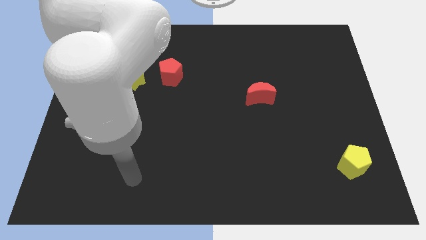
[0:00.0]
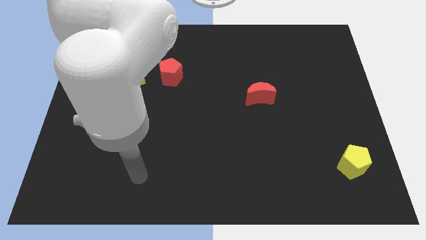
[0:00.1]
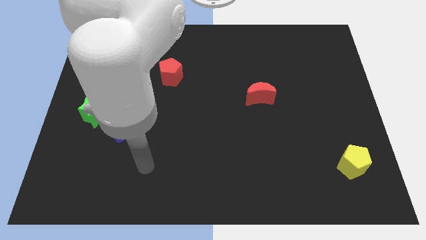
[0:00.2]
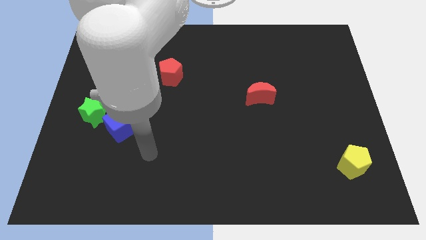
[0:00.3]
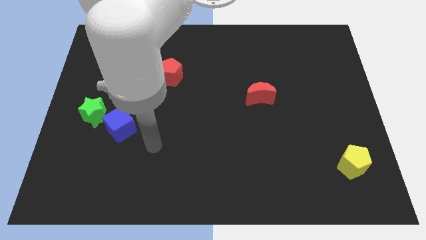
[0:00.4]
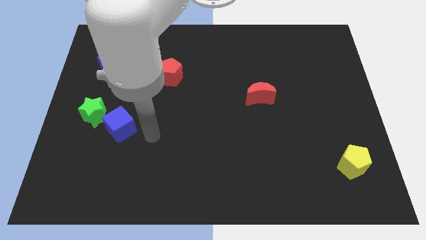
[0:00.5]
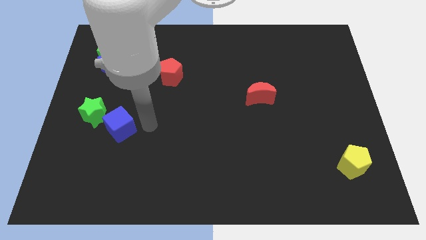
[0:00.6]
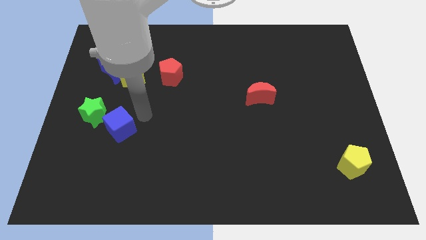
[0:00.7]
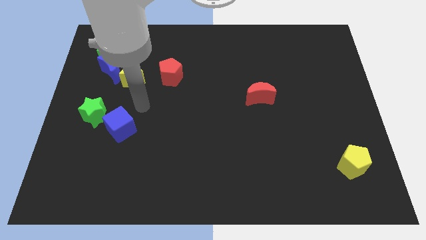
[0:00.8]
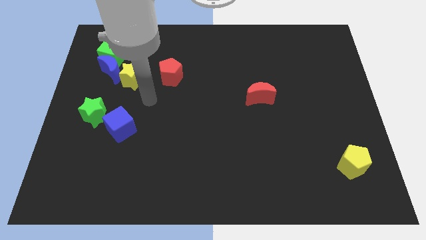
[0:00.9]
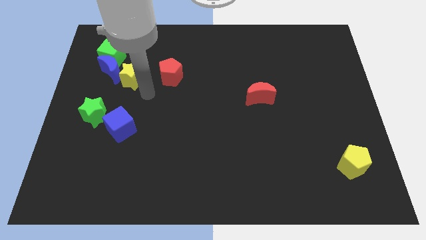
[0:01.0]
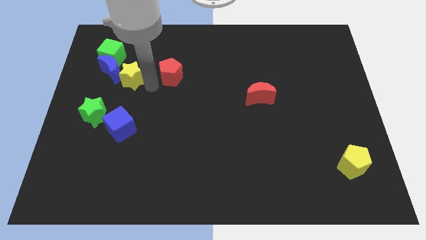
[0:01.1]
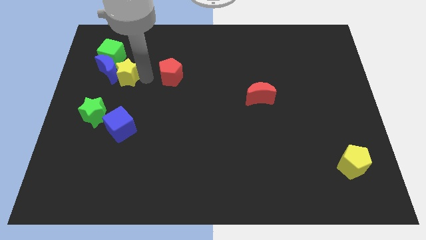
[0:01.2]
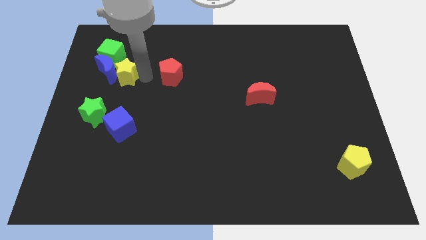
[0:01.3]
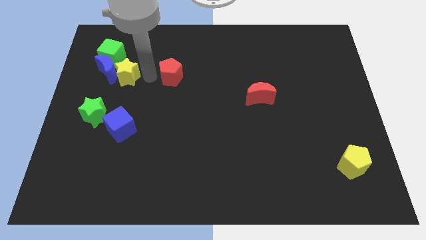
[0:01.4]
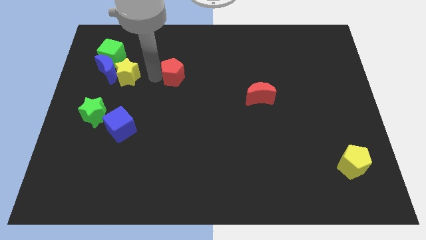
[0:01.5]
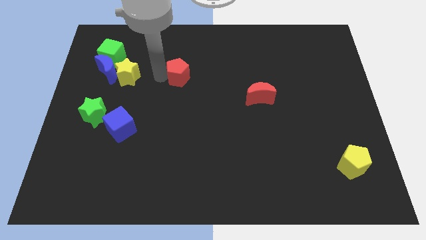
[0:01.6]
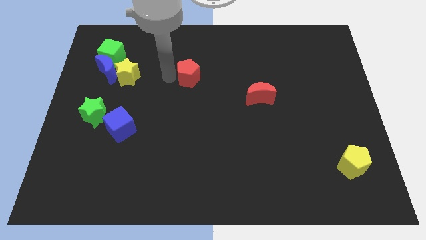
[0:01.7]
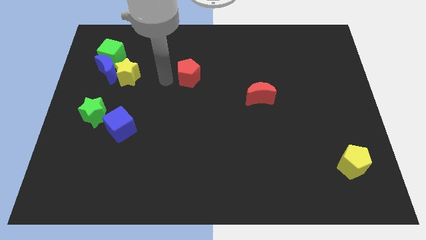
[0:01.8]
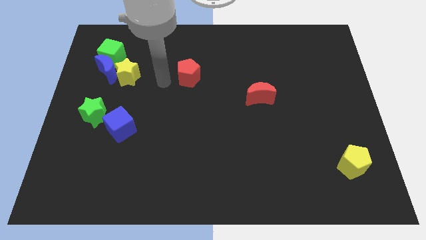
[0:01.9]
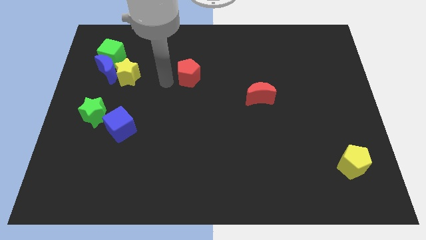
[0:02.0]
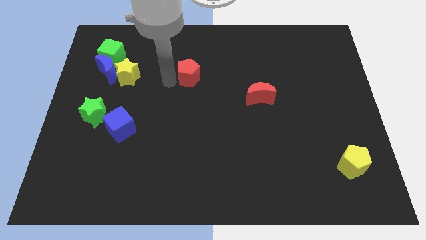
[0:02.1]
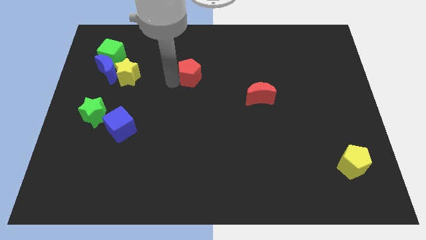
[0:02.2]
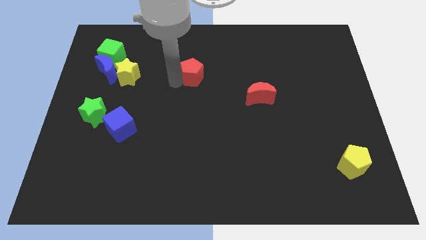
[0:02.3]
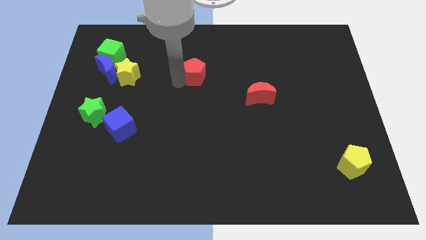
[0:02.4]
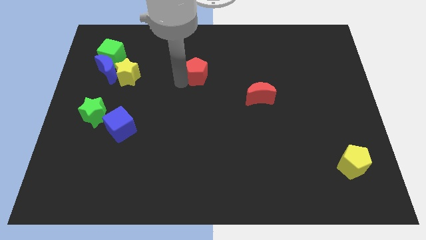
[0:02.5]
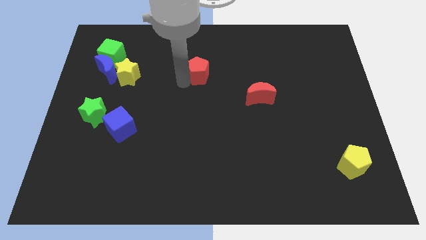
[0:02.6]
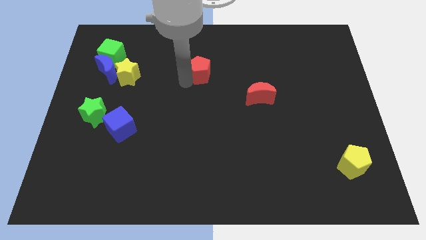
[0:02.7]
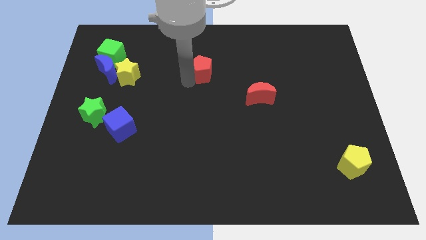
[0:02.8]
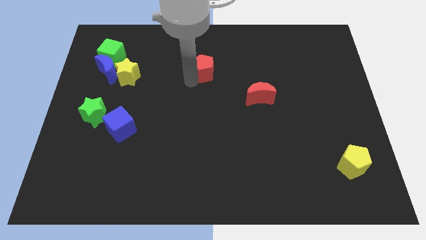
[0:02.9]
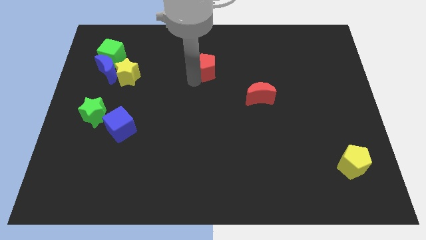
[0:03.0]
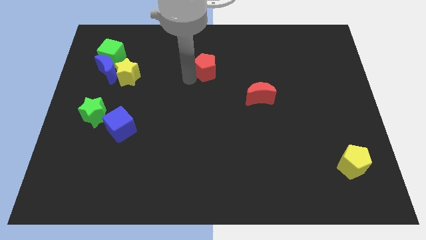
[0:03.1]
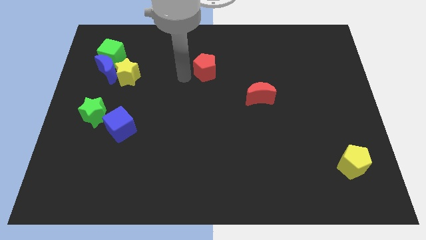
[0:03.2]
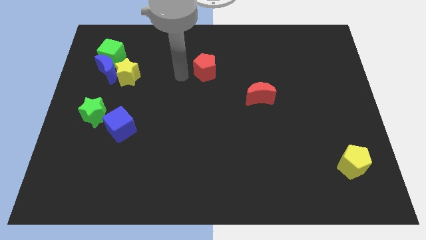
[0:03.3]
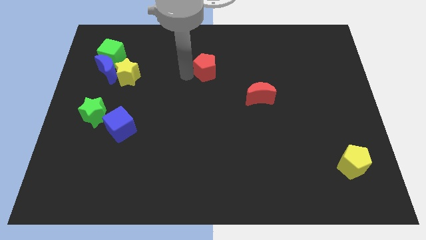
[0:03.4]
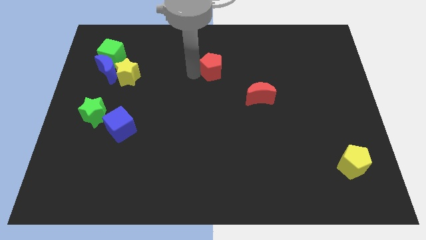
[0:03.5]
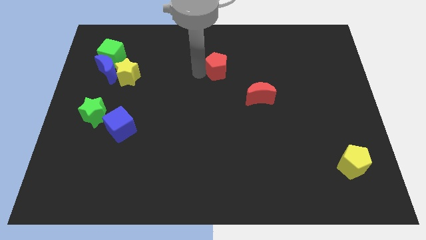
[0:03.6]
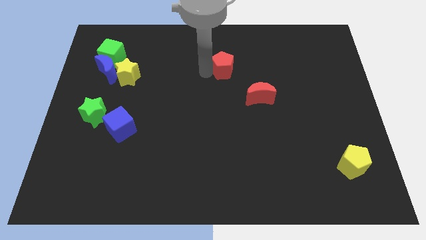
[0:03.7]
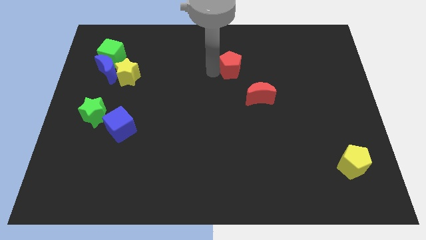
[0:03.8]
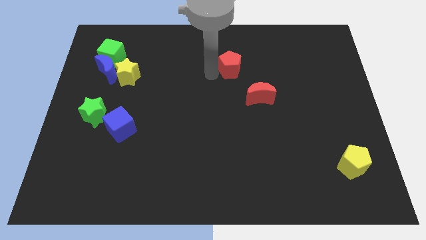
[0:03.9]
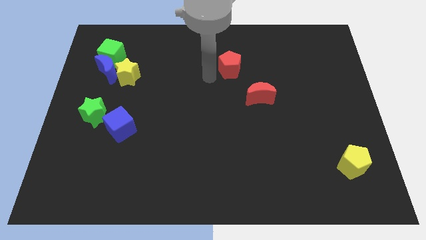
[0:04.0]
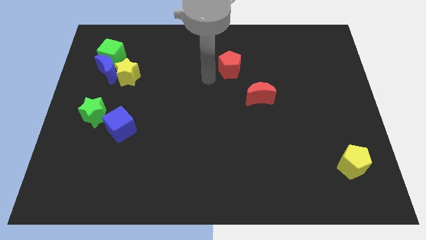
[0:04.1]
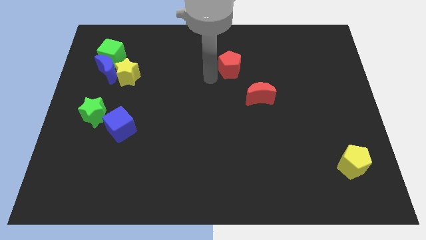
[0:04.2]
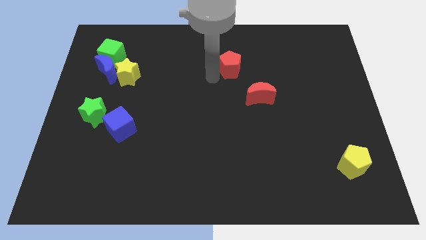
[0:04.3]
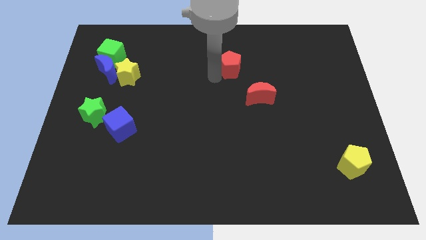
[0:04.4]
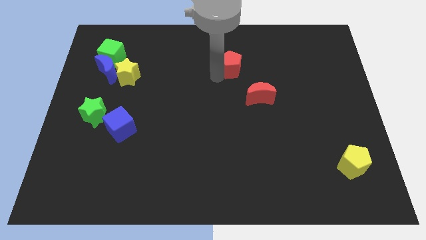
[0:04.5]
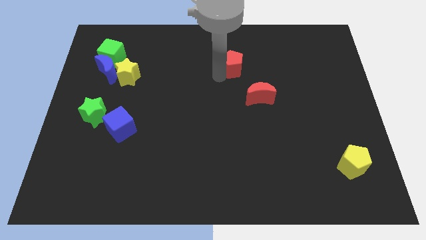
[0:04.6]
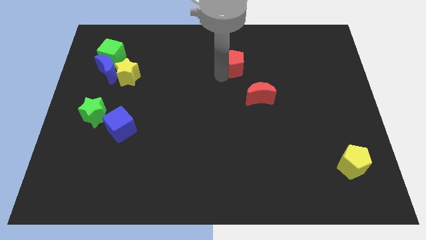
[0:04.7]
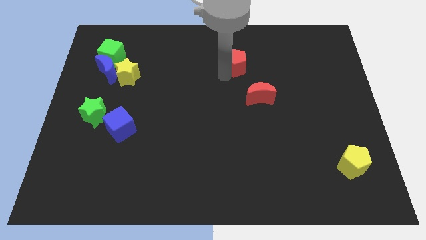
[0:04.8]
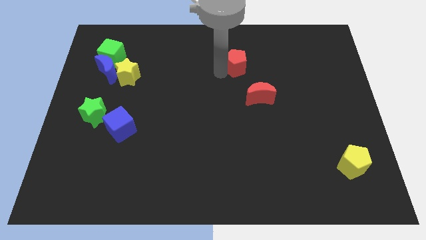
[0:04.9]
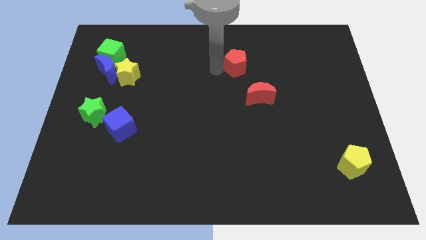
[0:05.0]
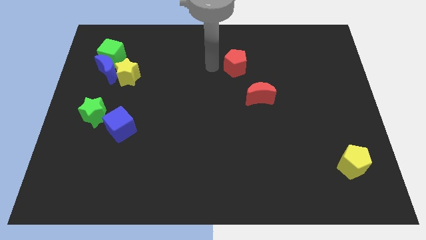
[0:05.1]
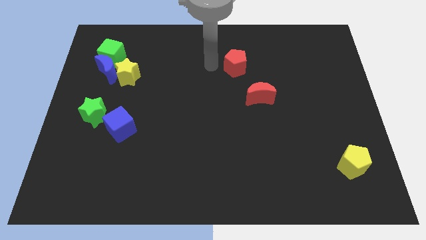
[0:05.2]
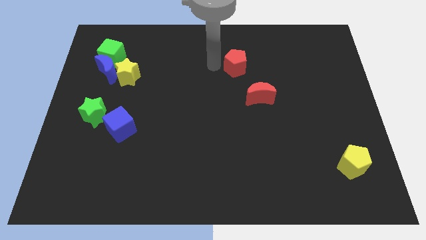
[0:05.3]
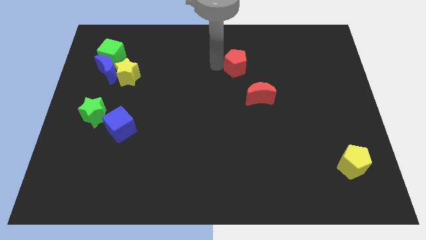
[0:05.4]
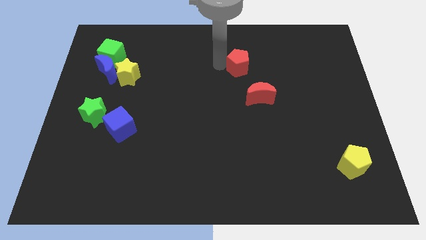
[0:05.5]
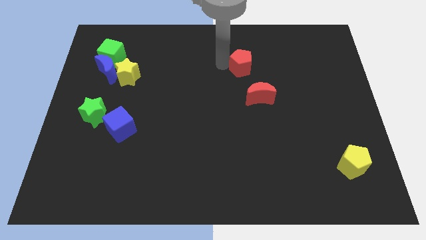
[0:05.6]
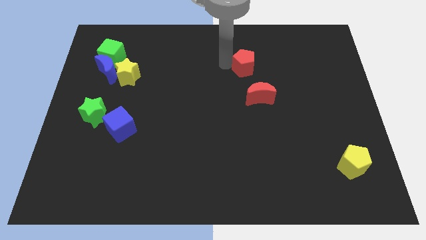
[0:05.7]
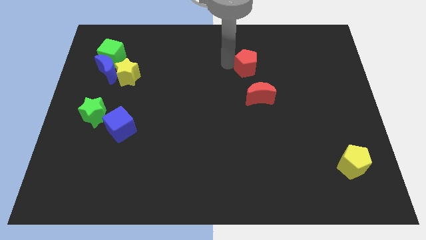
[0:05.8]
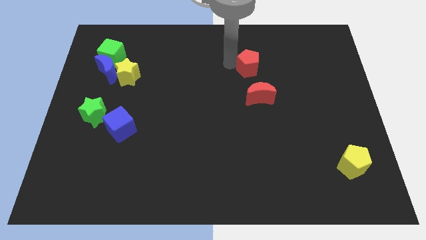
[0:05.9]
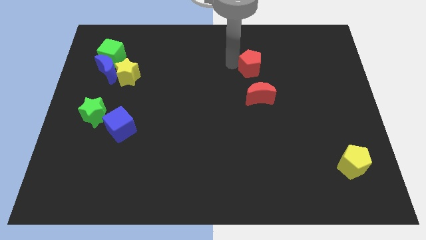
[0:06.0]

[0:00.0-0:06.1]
move the red pentagon to the right

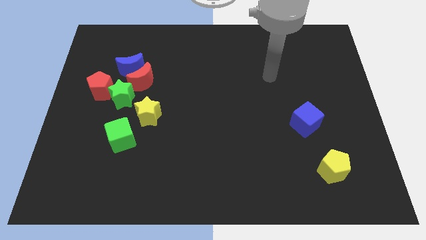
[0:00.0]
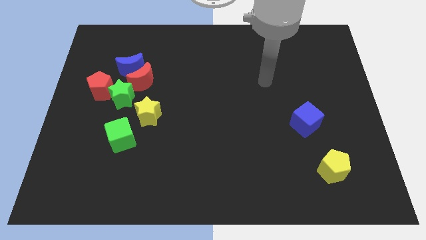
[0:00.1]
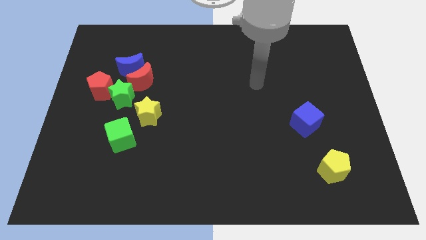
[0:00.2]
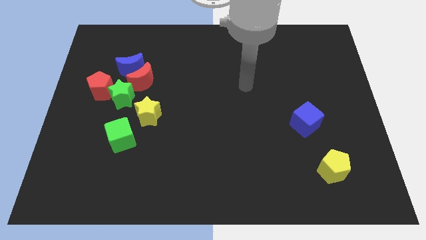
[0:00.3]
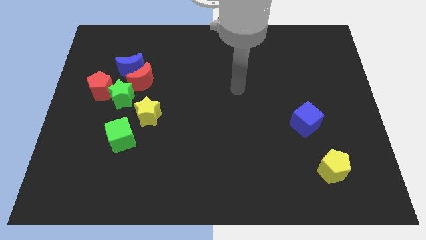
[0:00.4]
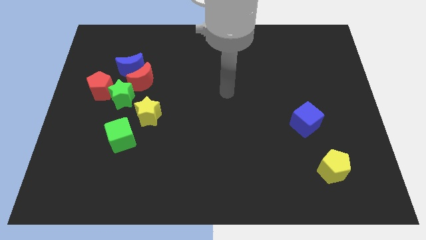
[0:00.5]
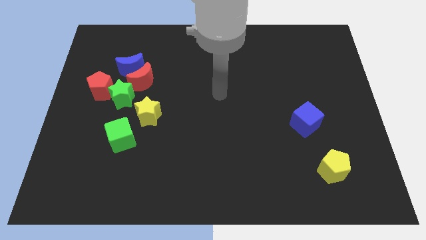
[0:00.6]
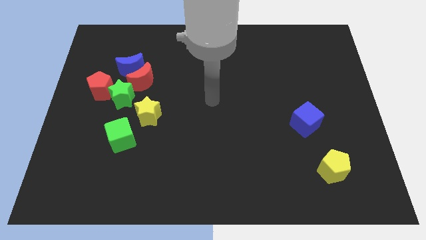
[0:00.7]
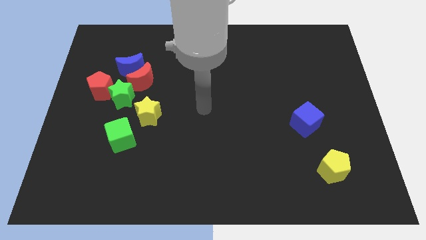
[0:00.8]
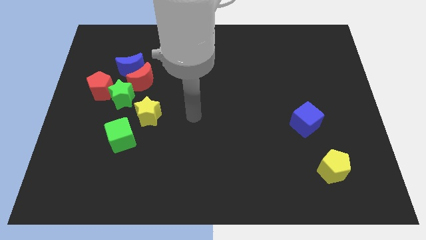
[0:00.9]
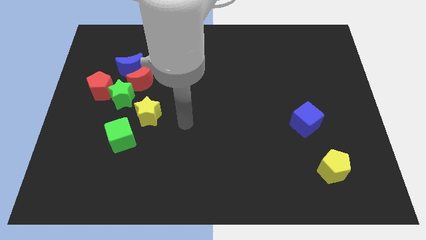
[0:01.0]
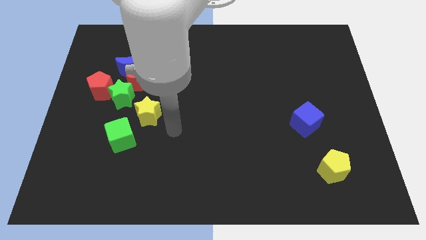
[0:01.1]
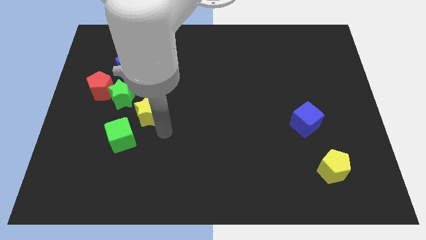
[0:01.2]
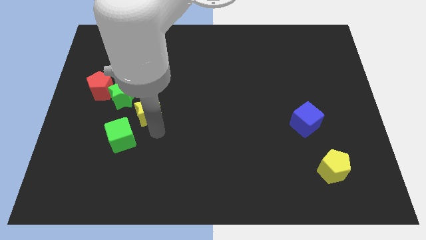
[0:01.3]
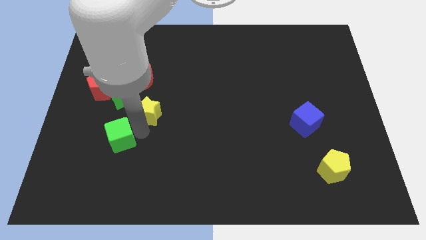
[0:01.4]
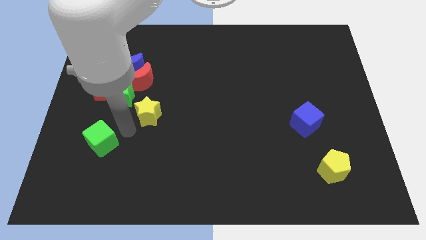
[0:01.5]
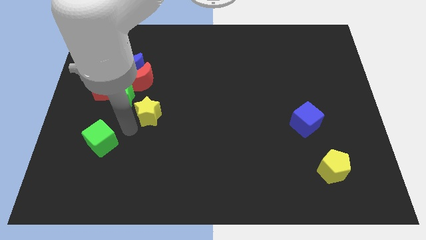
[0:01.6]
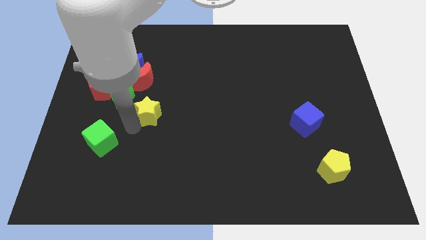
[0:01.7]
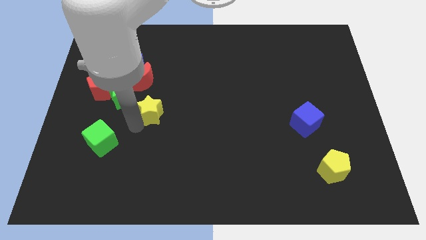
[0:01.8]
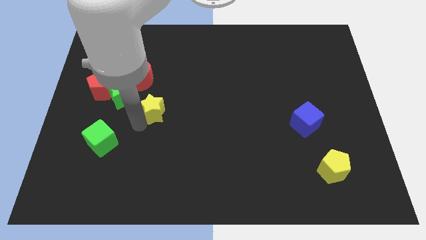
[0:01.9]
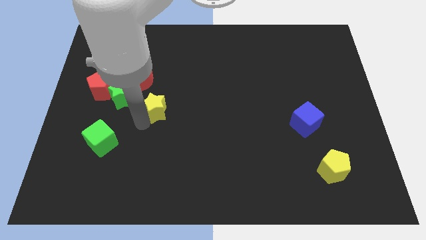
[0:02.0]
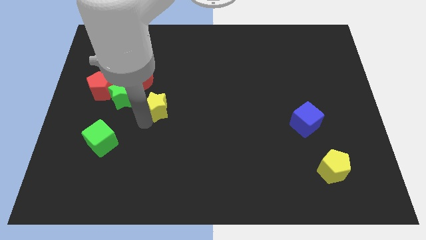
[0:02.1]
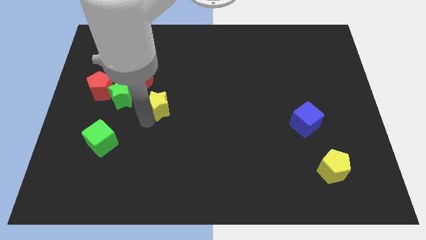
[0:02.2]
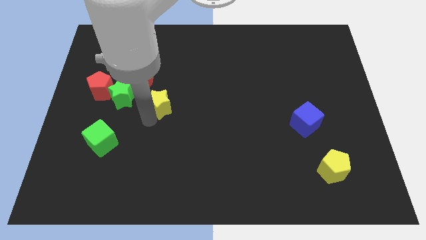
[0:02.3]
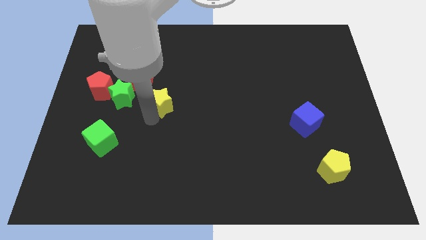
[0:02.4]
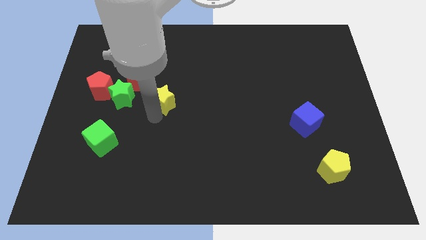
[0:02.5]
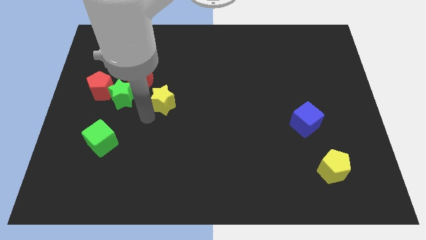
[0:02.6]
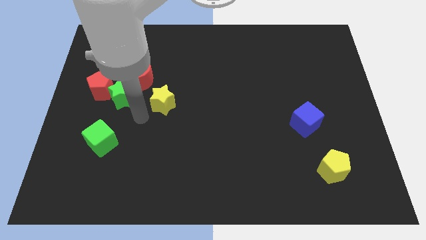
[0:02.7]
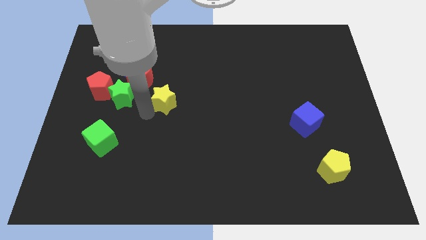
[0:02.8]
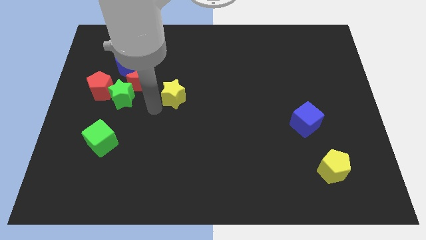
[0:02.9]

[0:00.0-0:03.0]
slightly slide the yellow star diagonally up and right
